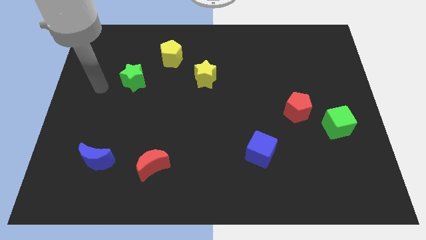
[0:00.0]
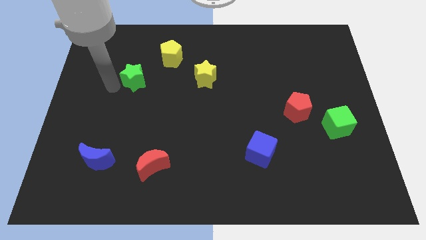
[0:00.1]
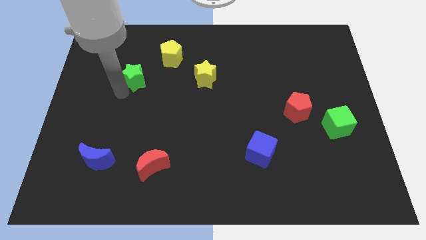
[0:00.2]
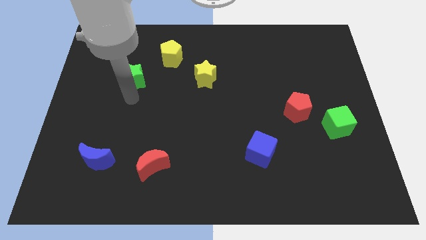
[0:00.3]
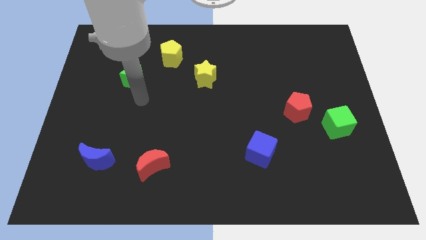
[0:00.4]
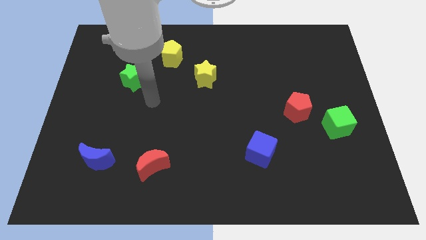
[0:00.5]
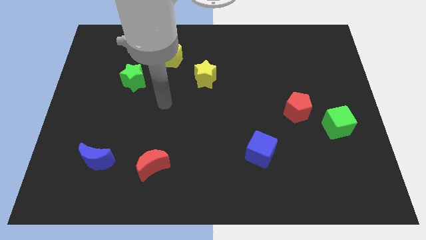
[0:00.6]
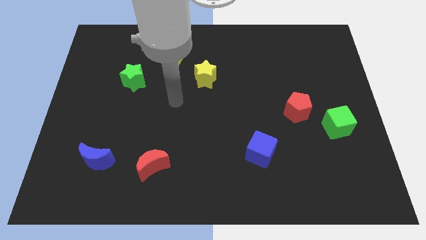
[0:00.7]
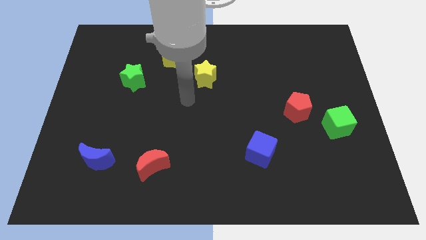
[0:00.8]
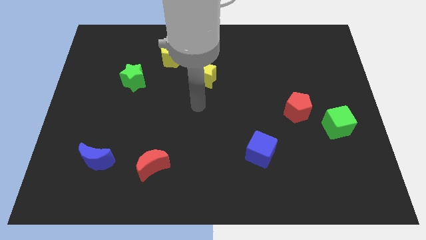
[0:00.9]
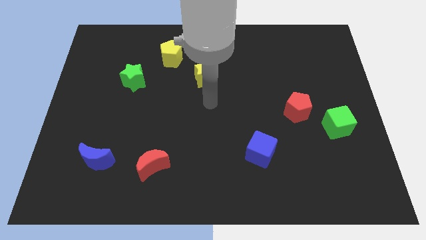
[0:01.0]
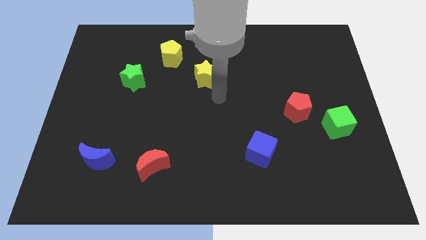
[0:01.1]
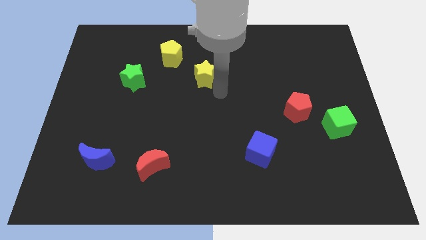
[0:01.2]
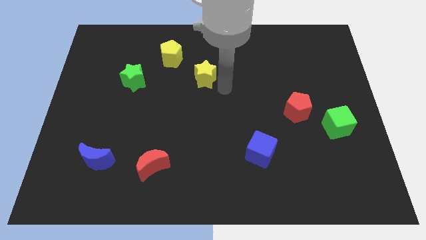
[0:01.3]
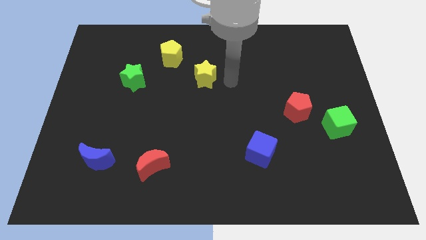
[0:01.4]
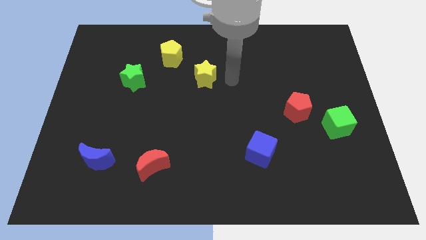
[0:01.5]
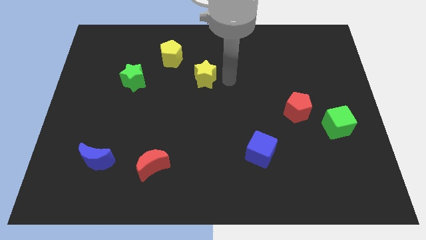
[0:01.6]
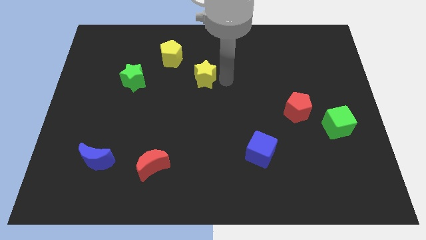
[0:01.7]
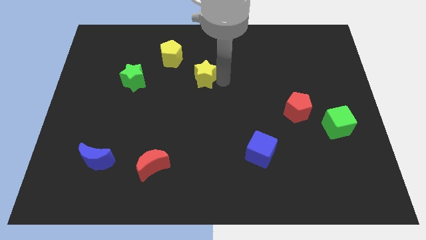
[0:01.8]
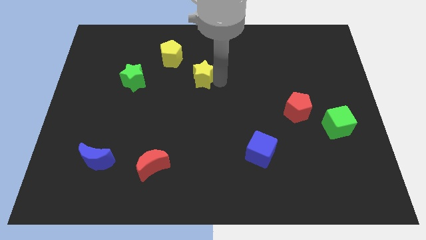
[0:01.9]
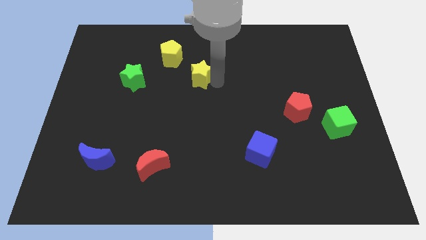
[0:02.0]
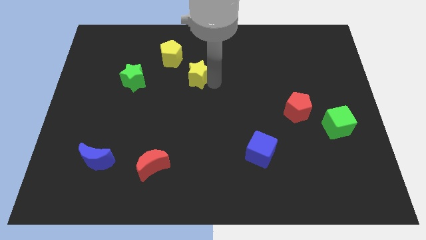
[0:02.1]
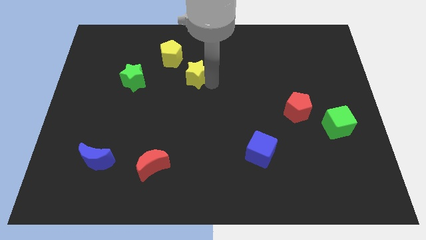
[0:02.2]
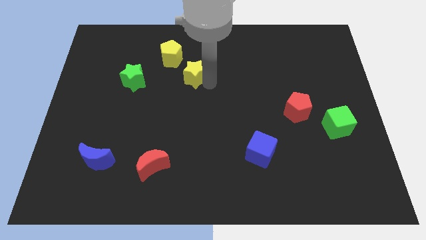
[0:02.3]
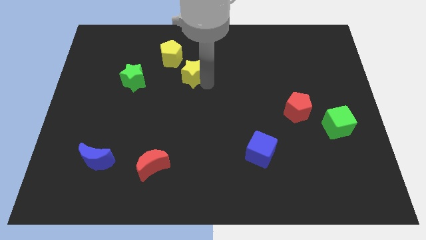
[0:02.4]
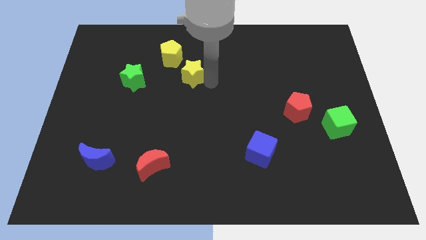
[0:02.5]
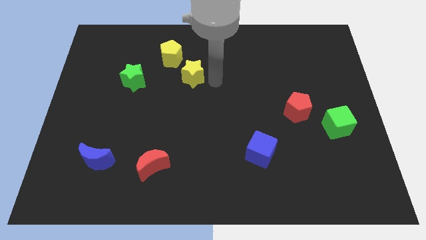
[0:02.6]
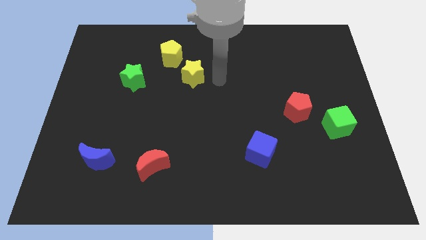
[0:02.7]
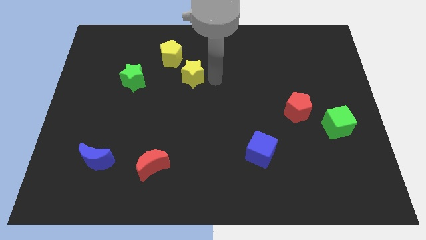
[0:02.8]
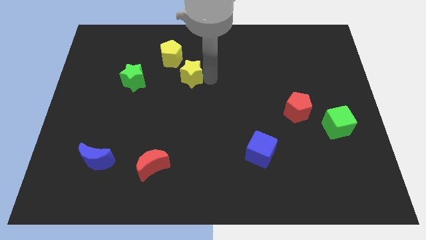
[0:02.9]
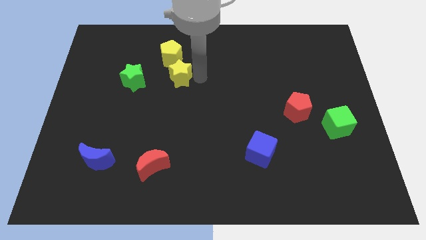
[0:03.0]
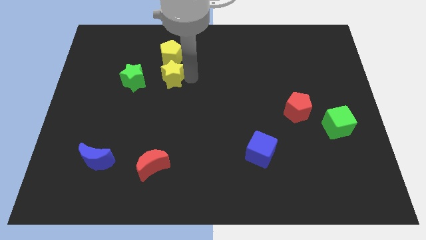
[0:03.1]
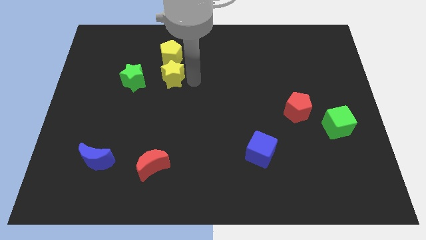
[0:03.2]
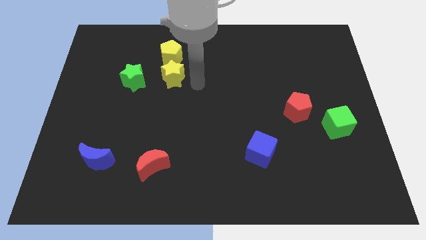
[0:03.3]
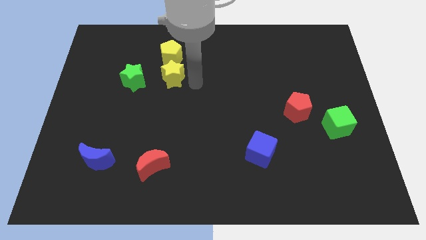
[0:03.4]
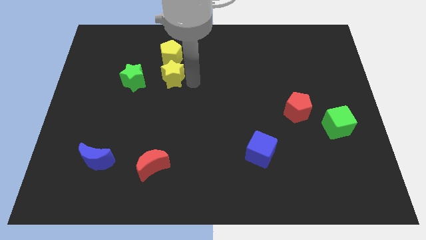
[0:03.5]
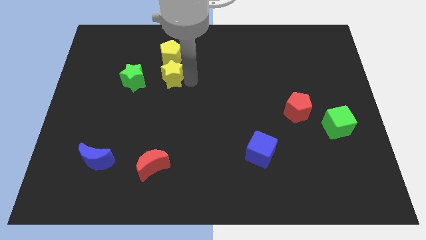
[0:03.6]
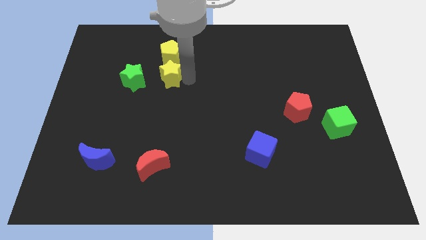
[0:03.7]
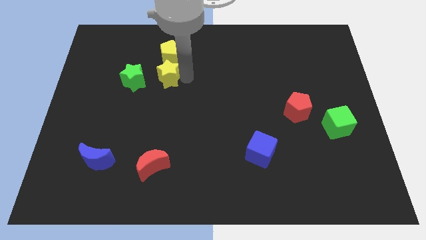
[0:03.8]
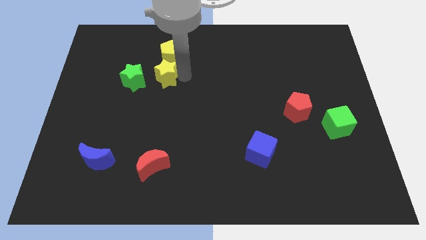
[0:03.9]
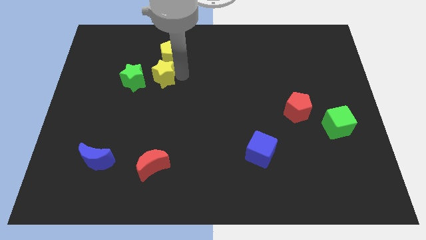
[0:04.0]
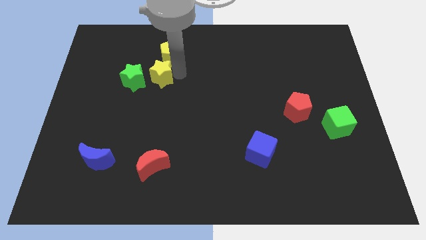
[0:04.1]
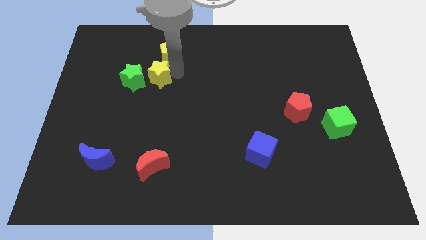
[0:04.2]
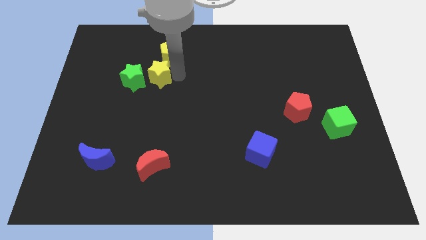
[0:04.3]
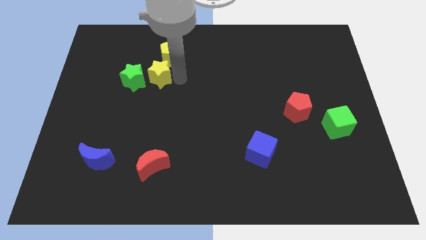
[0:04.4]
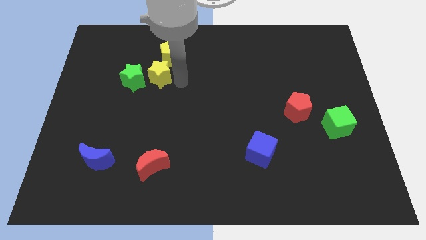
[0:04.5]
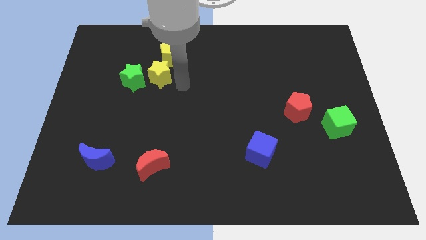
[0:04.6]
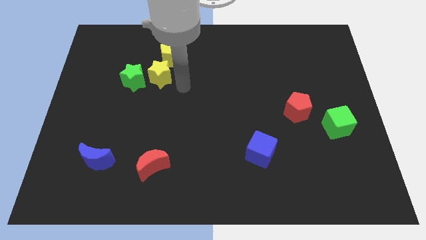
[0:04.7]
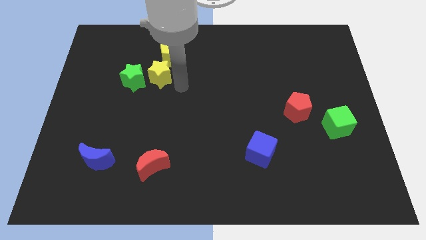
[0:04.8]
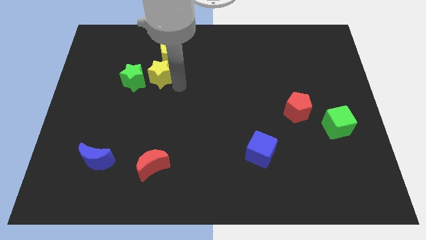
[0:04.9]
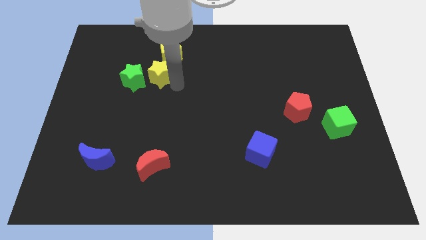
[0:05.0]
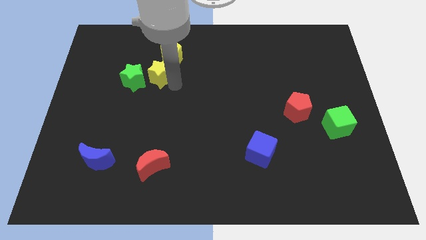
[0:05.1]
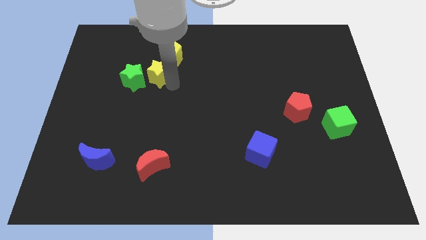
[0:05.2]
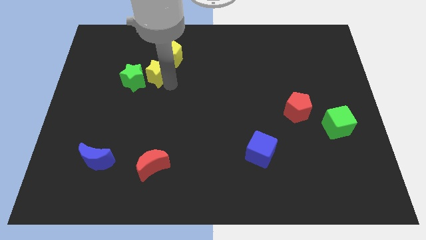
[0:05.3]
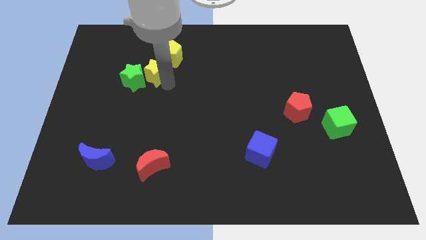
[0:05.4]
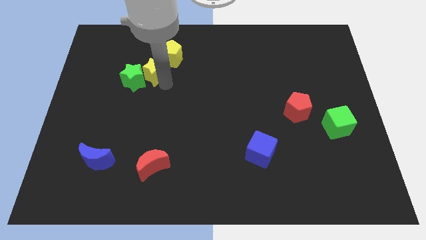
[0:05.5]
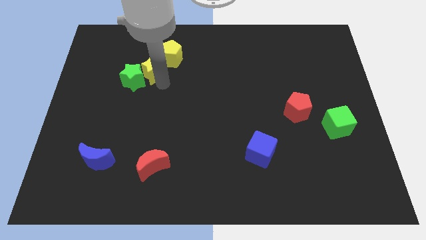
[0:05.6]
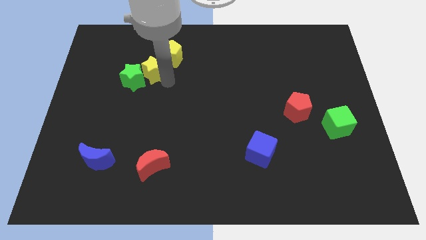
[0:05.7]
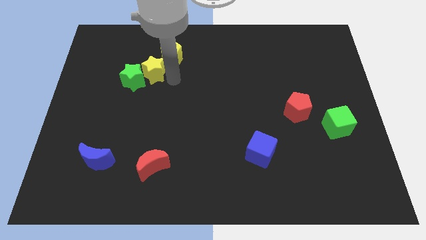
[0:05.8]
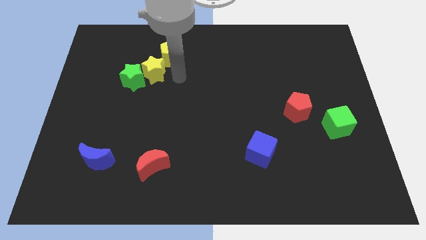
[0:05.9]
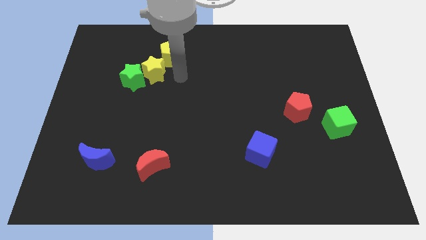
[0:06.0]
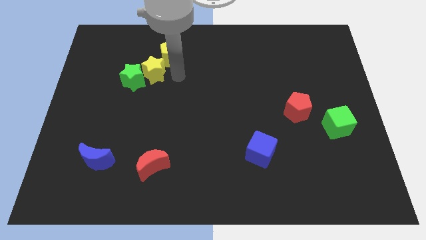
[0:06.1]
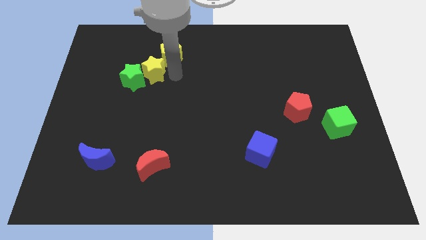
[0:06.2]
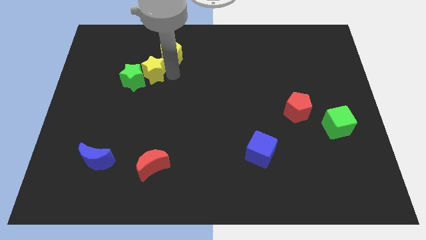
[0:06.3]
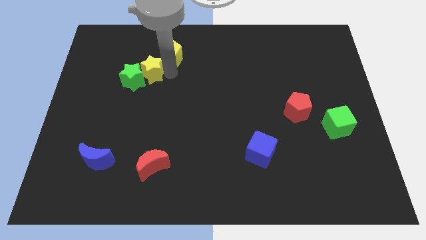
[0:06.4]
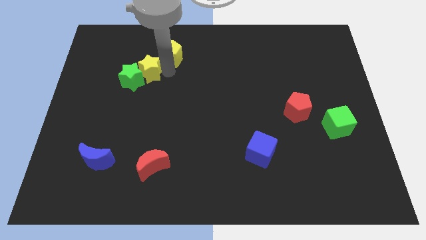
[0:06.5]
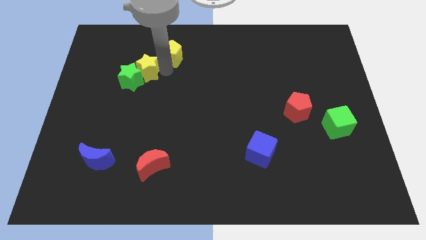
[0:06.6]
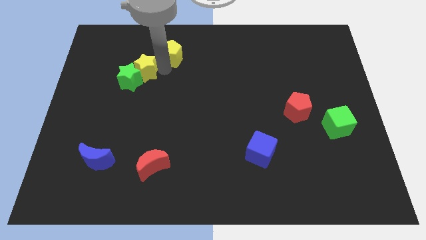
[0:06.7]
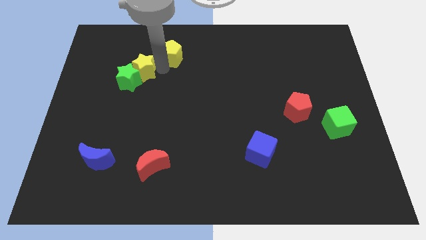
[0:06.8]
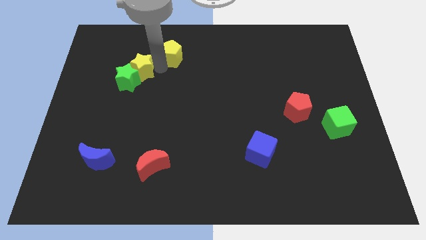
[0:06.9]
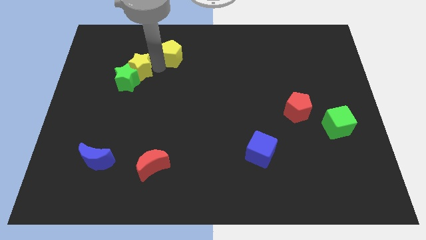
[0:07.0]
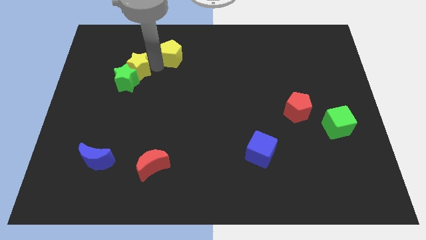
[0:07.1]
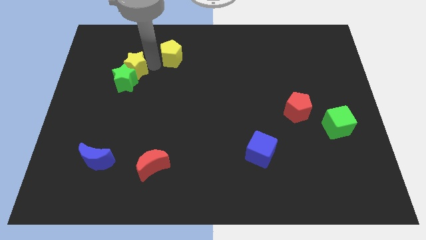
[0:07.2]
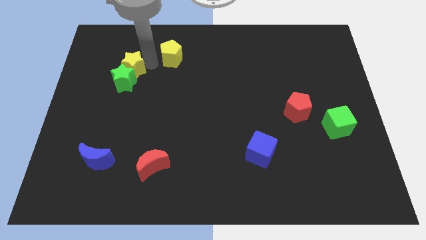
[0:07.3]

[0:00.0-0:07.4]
put the yellow star to the top left side of the green star

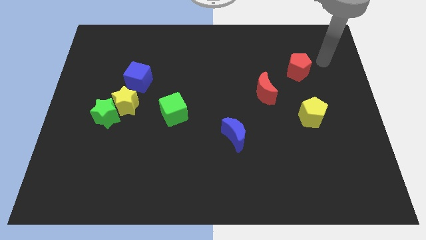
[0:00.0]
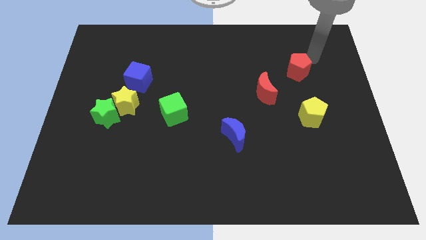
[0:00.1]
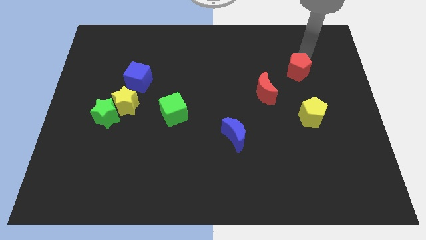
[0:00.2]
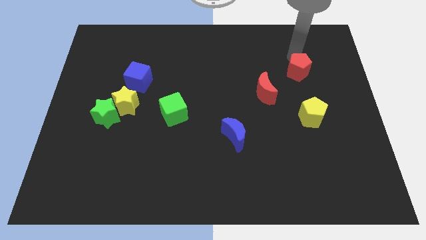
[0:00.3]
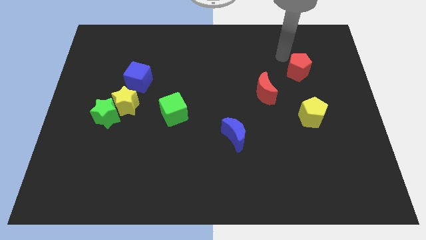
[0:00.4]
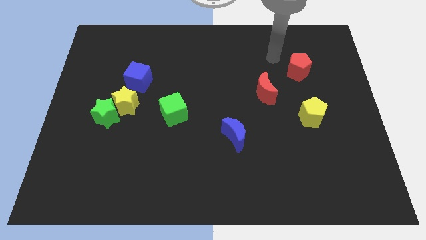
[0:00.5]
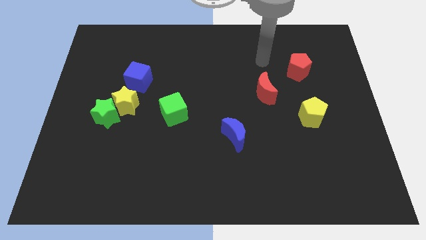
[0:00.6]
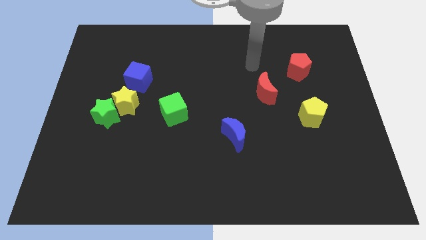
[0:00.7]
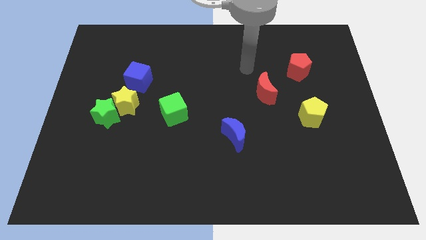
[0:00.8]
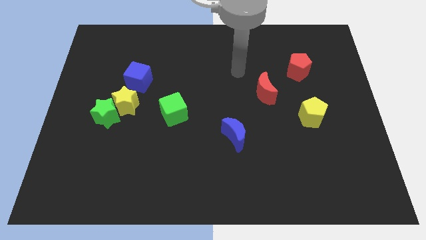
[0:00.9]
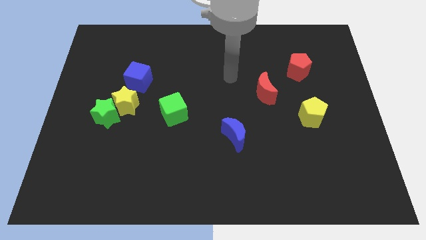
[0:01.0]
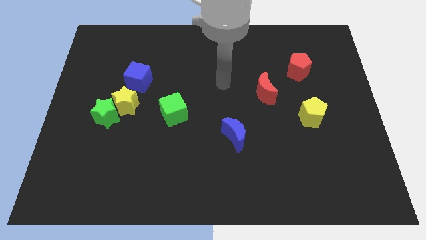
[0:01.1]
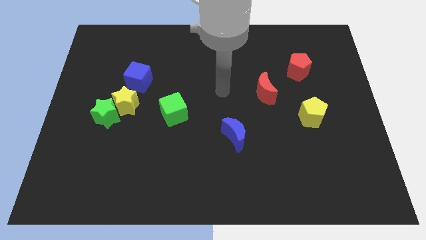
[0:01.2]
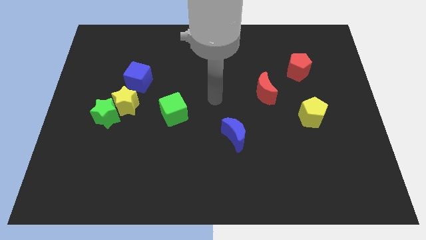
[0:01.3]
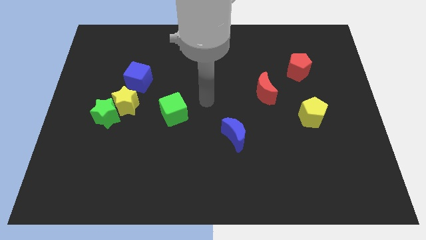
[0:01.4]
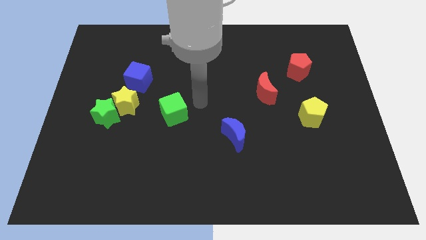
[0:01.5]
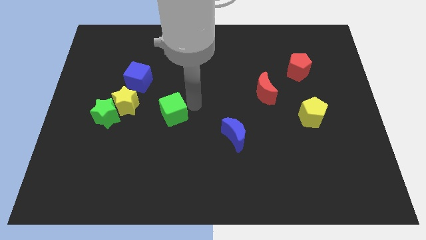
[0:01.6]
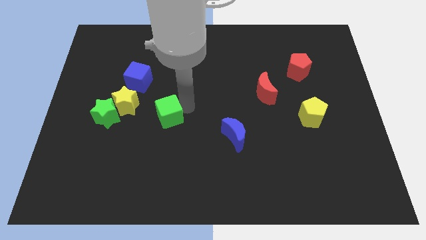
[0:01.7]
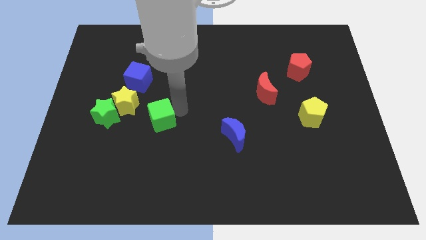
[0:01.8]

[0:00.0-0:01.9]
push the green cube to the bottom right of the yellow star
